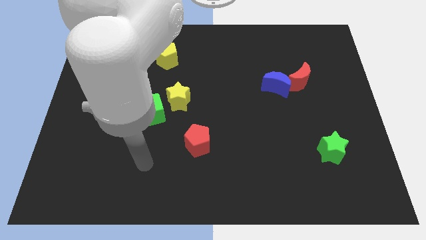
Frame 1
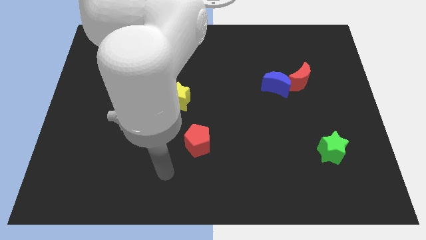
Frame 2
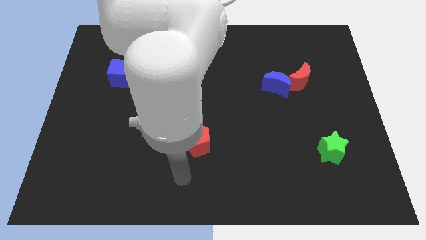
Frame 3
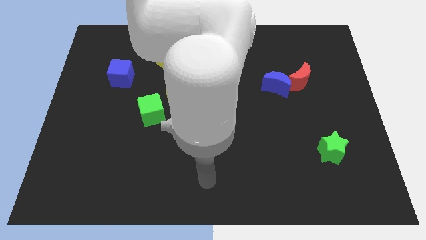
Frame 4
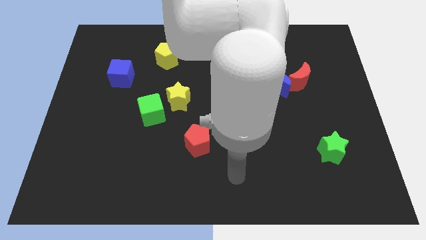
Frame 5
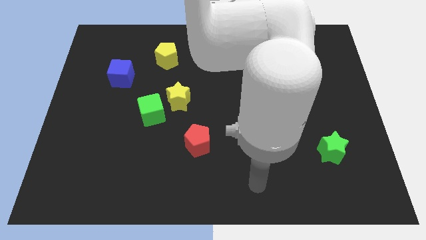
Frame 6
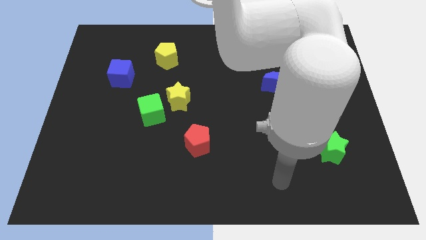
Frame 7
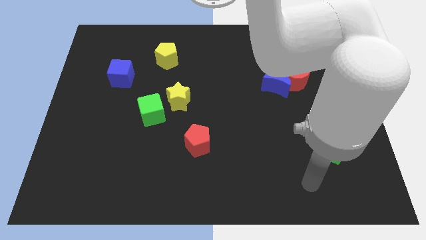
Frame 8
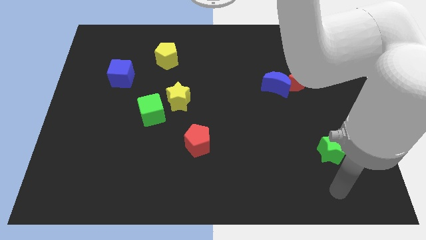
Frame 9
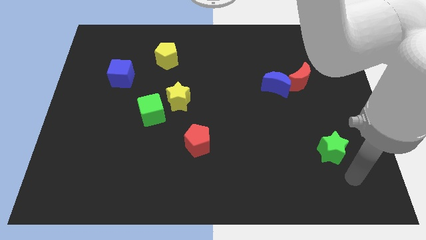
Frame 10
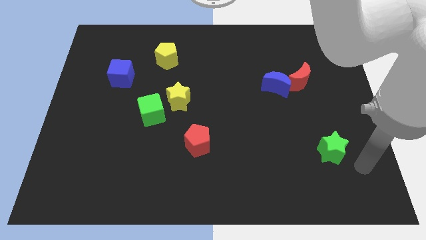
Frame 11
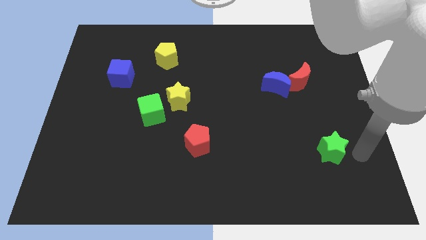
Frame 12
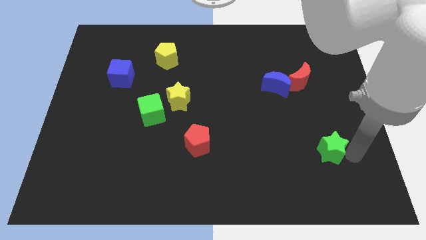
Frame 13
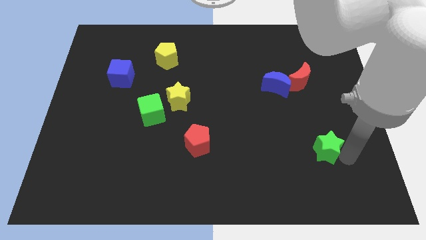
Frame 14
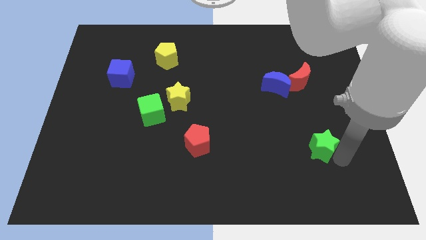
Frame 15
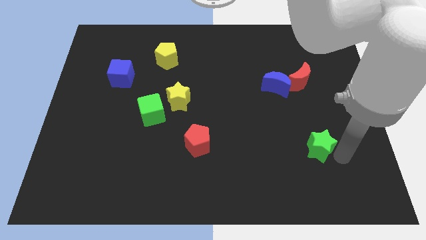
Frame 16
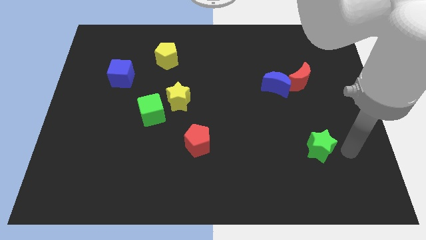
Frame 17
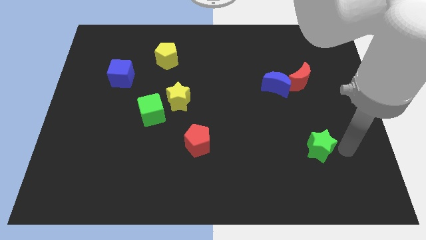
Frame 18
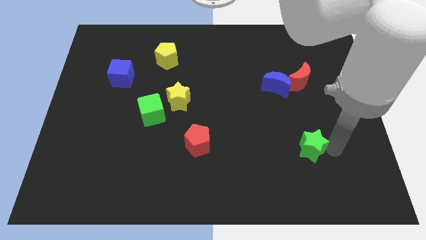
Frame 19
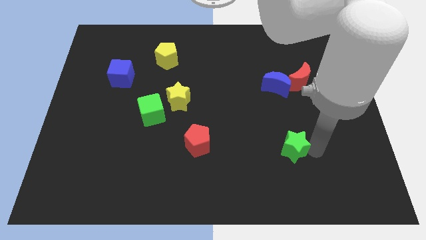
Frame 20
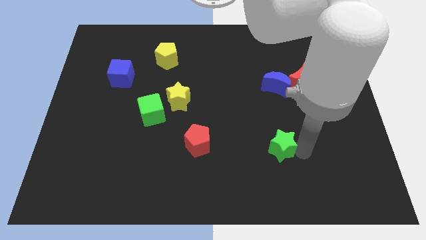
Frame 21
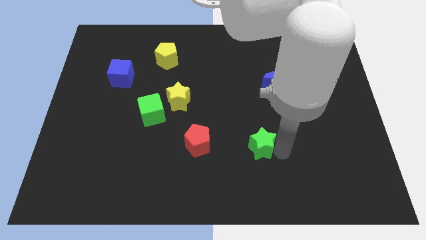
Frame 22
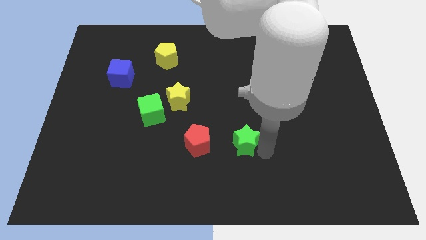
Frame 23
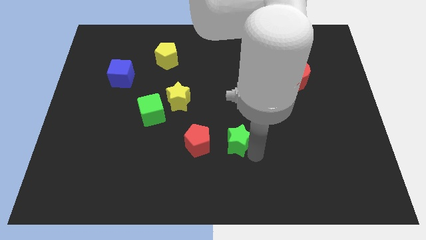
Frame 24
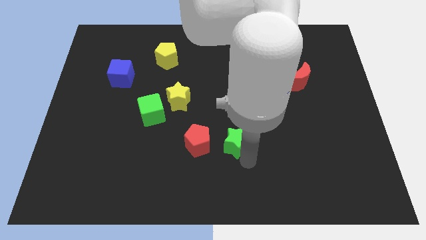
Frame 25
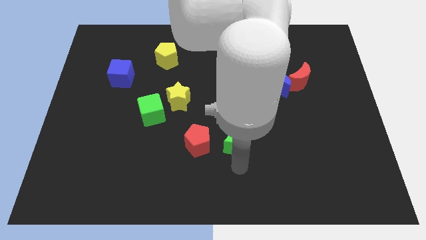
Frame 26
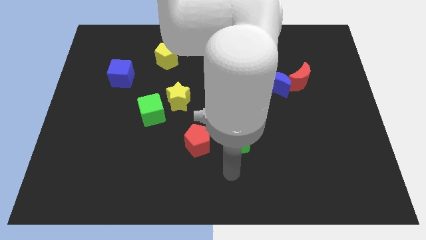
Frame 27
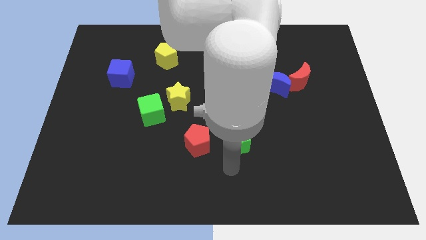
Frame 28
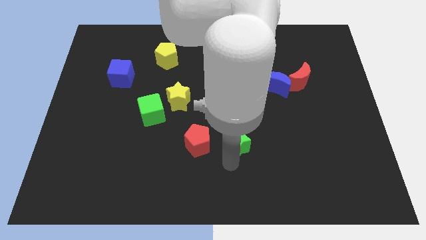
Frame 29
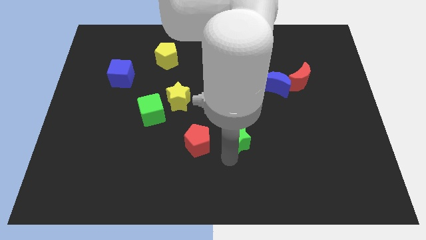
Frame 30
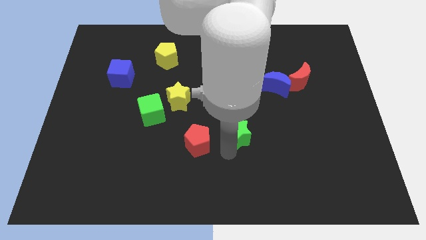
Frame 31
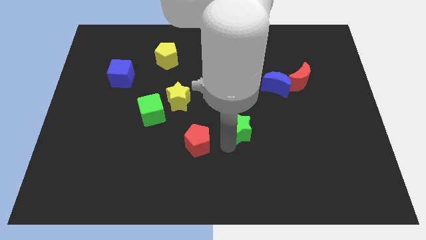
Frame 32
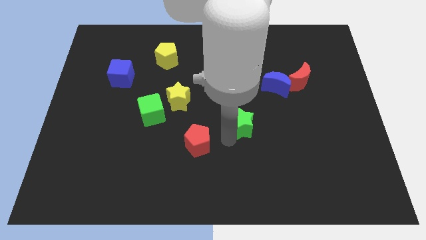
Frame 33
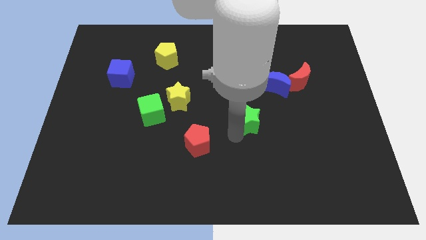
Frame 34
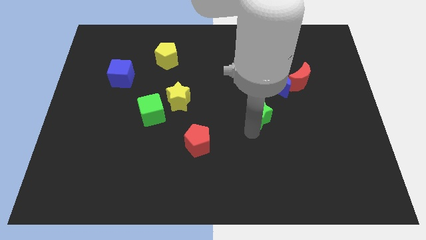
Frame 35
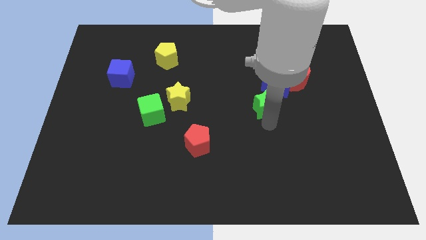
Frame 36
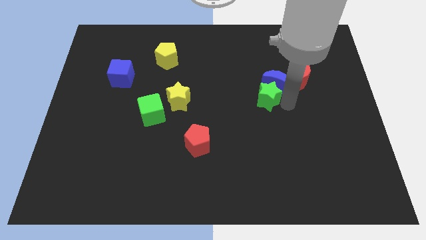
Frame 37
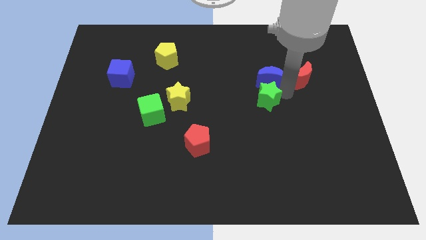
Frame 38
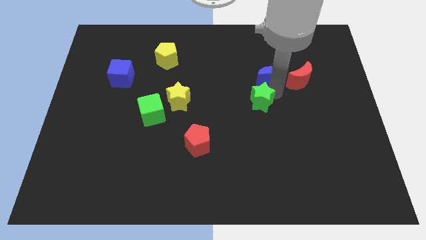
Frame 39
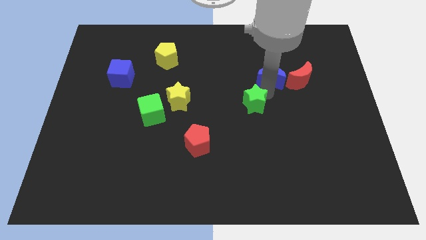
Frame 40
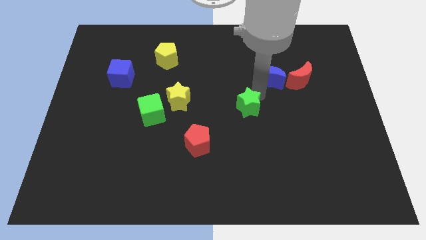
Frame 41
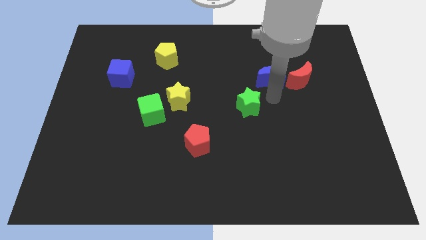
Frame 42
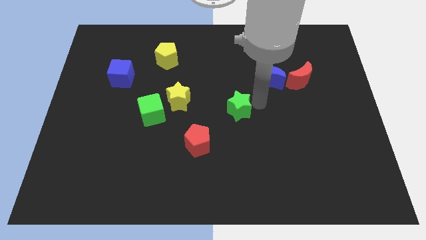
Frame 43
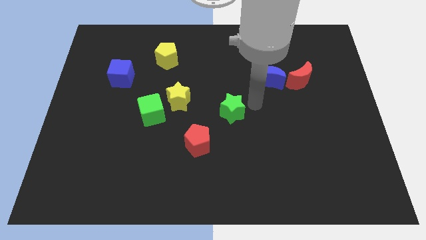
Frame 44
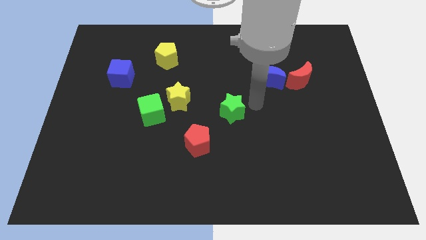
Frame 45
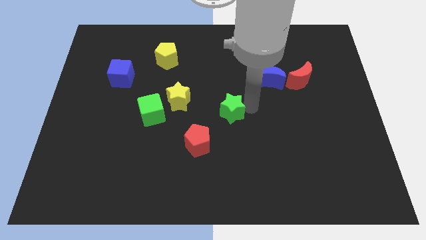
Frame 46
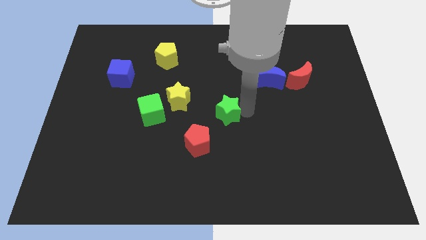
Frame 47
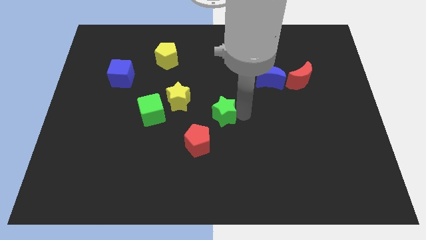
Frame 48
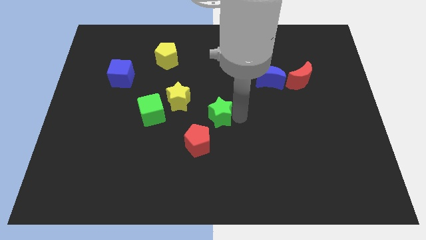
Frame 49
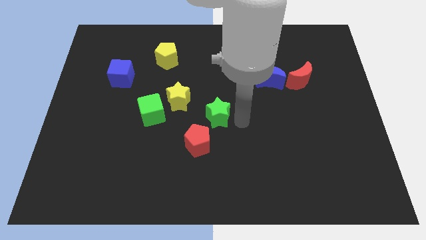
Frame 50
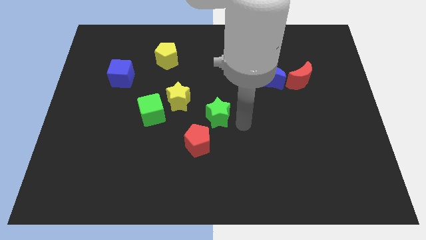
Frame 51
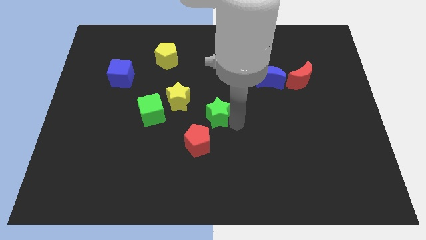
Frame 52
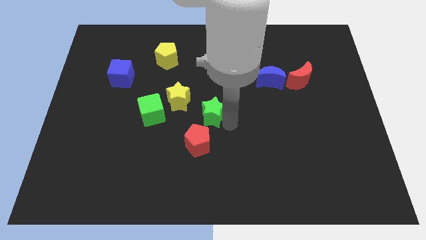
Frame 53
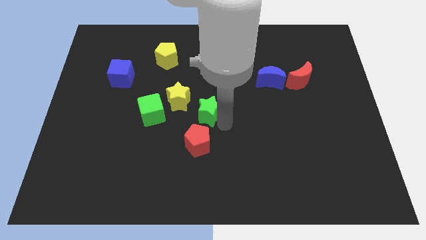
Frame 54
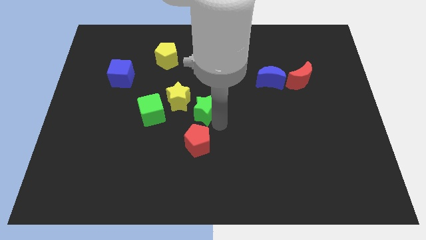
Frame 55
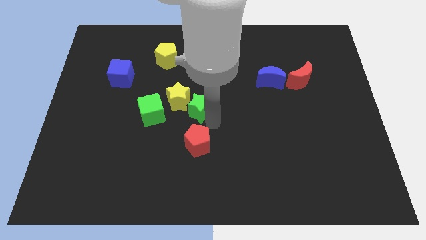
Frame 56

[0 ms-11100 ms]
put the green star close to the yellow star
